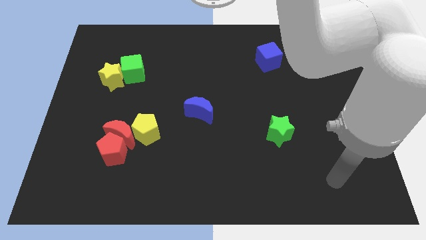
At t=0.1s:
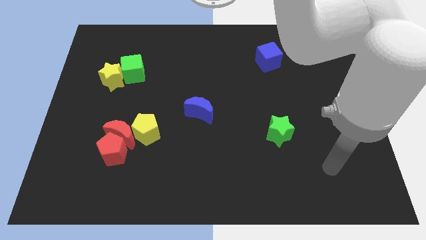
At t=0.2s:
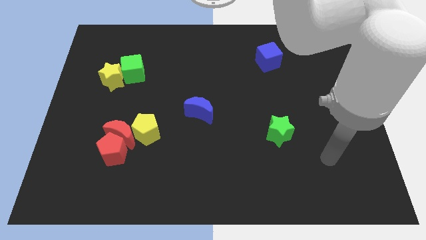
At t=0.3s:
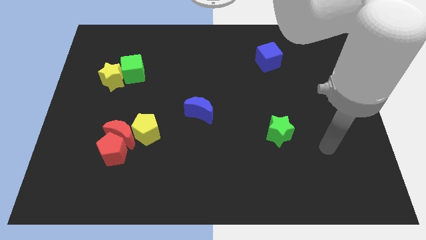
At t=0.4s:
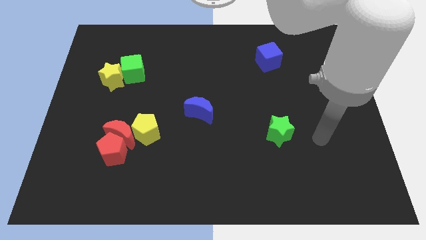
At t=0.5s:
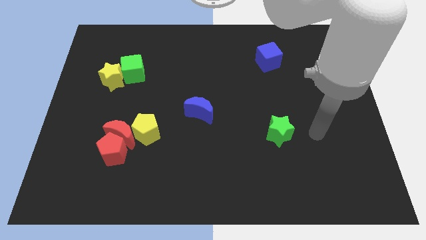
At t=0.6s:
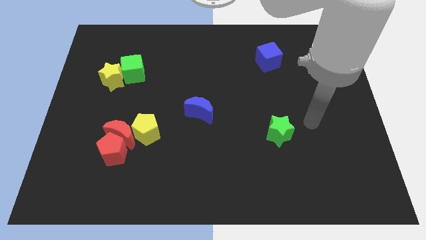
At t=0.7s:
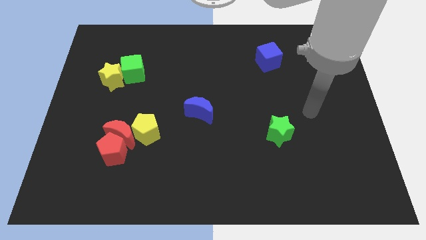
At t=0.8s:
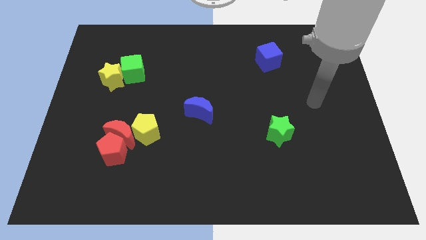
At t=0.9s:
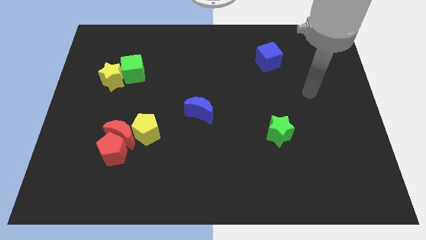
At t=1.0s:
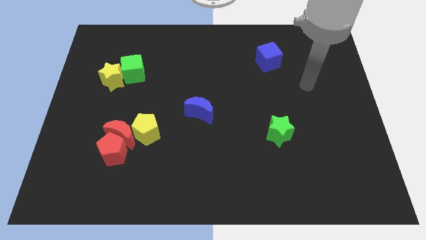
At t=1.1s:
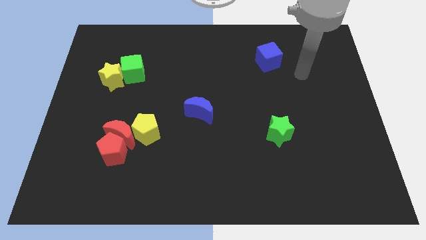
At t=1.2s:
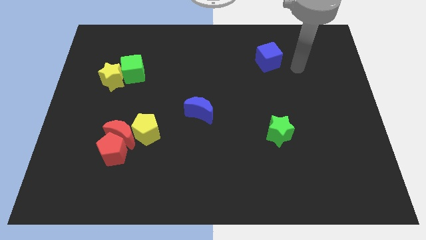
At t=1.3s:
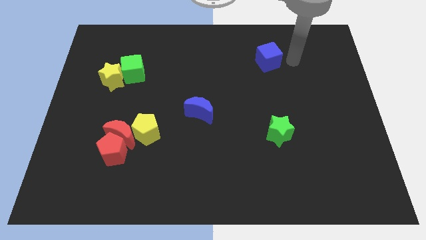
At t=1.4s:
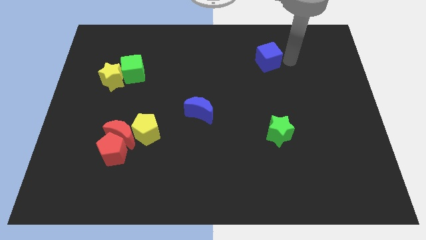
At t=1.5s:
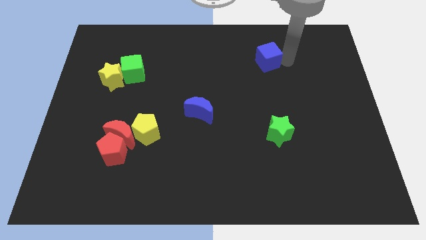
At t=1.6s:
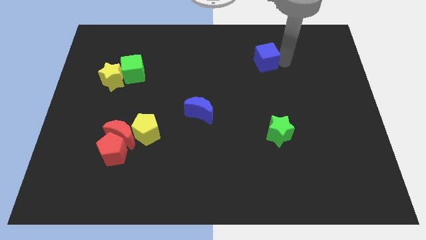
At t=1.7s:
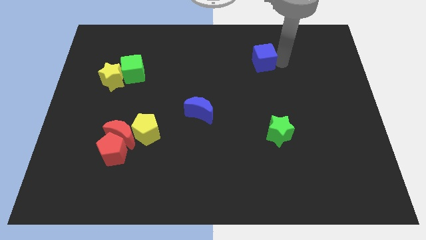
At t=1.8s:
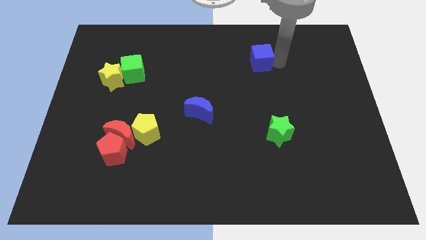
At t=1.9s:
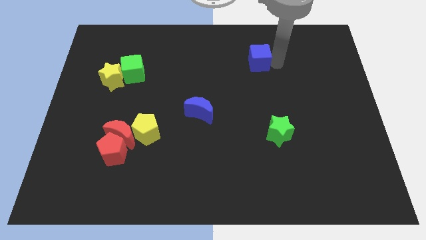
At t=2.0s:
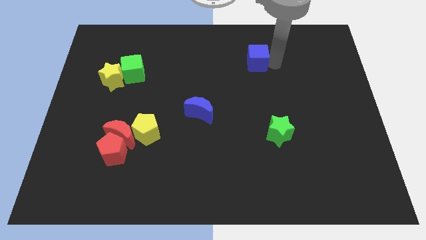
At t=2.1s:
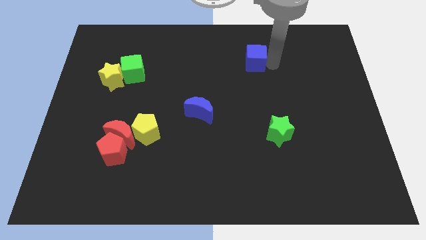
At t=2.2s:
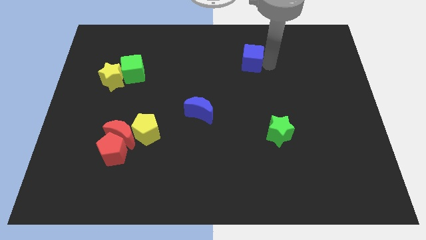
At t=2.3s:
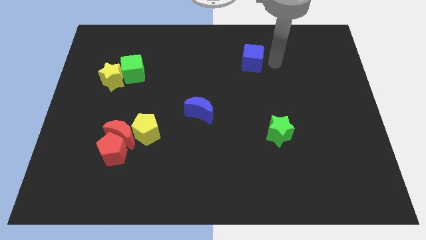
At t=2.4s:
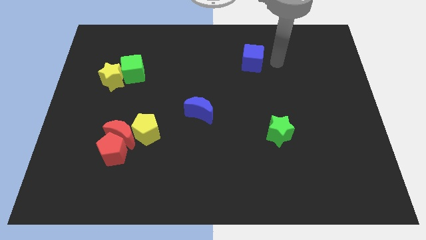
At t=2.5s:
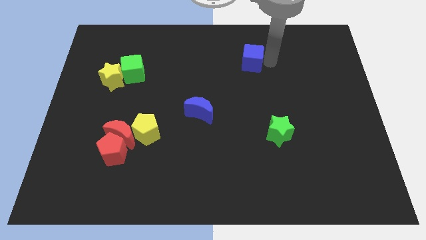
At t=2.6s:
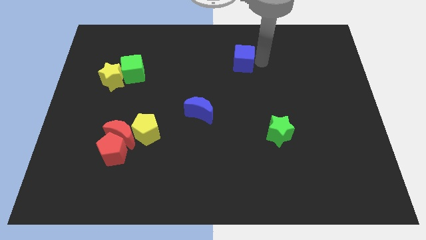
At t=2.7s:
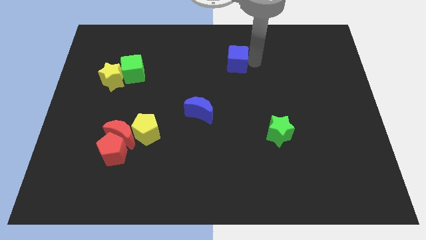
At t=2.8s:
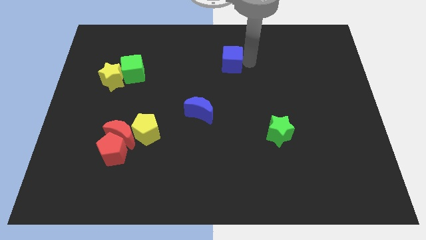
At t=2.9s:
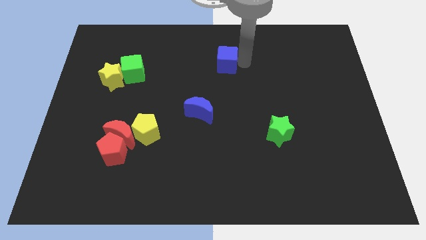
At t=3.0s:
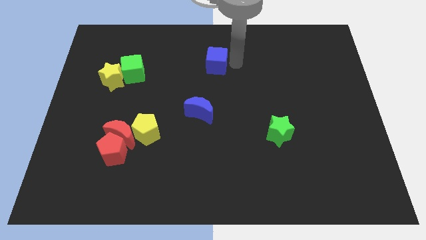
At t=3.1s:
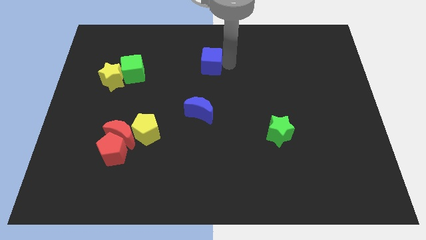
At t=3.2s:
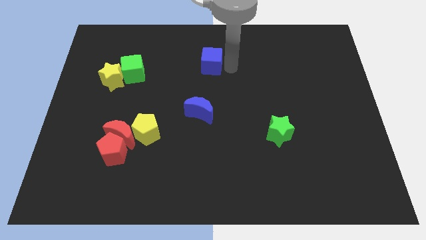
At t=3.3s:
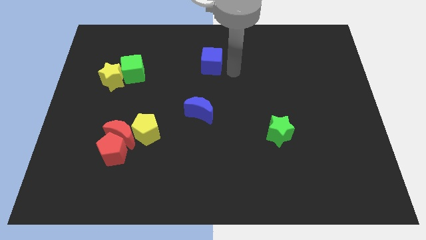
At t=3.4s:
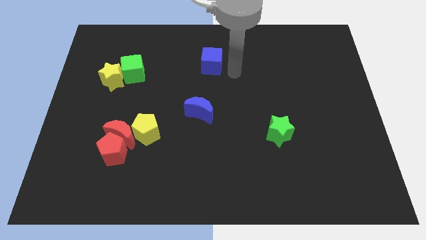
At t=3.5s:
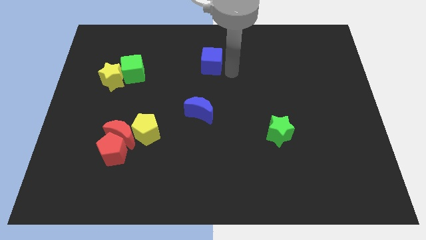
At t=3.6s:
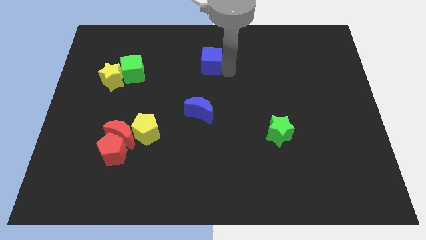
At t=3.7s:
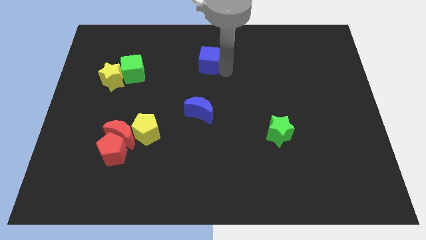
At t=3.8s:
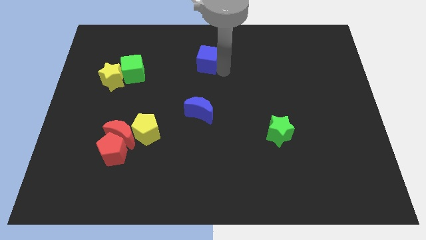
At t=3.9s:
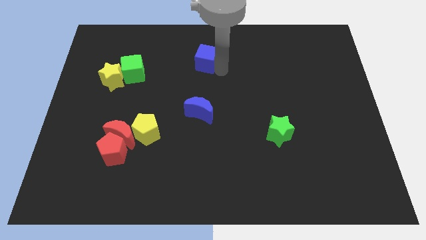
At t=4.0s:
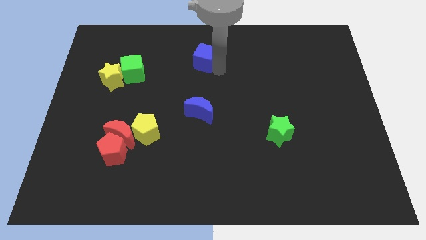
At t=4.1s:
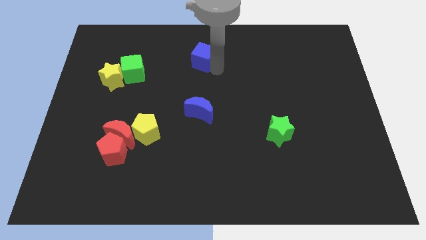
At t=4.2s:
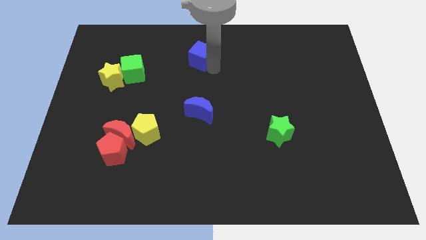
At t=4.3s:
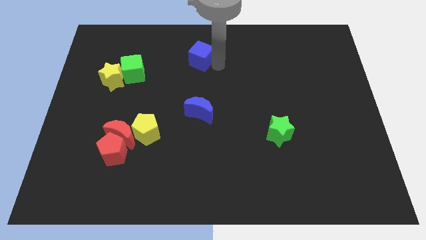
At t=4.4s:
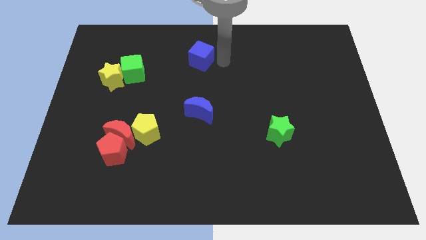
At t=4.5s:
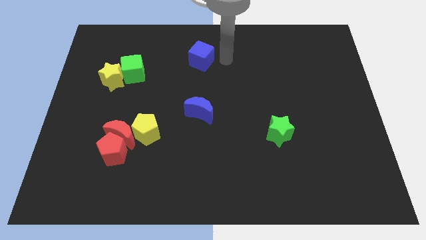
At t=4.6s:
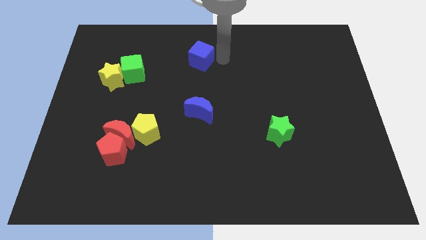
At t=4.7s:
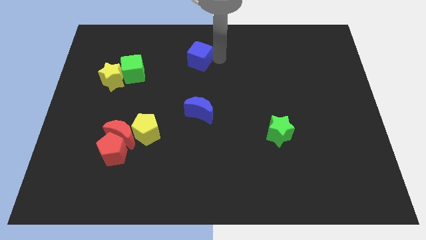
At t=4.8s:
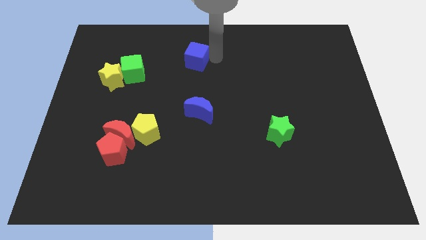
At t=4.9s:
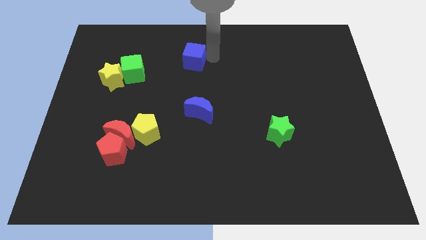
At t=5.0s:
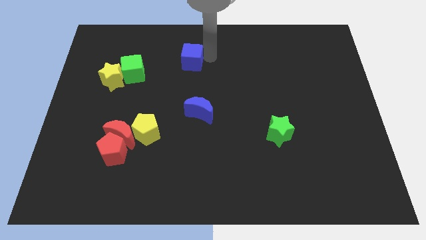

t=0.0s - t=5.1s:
slide the blue cube left

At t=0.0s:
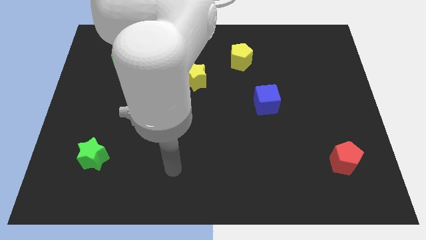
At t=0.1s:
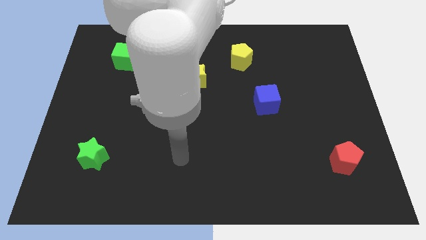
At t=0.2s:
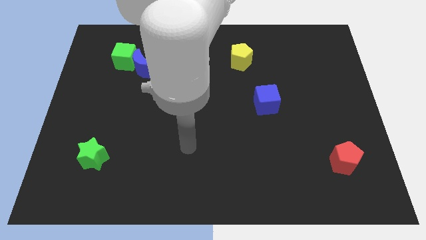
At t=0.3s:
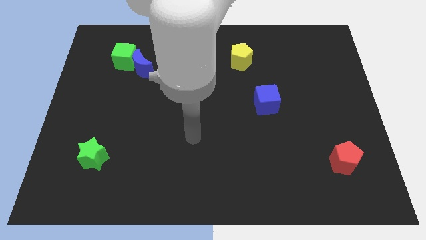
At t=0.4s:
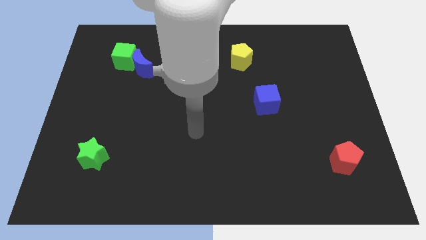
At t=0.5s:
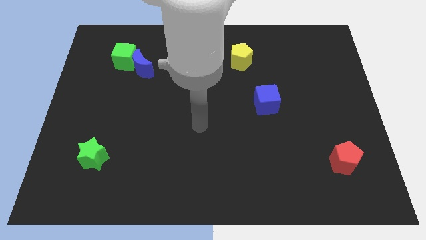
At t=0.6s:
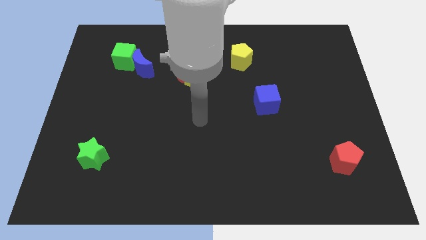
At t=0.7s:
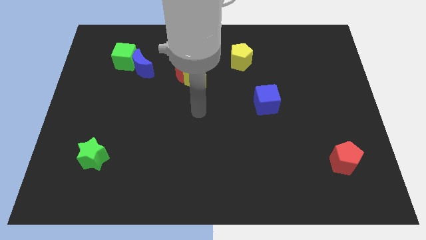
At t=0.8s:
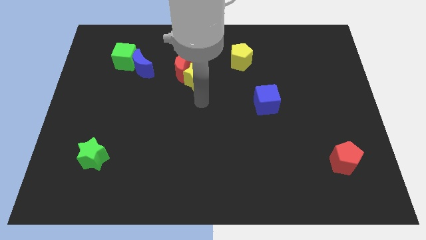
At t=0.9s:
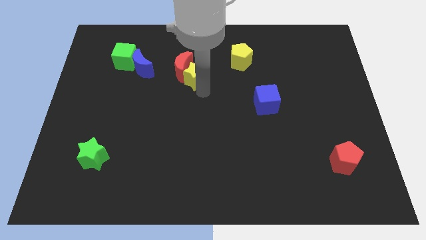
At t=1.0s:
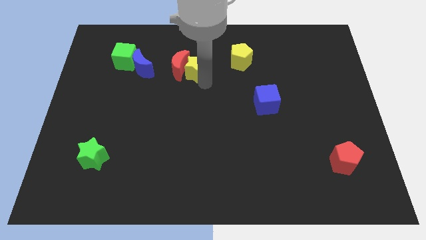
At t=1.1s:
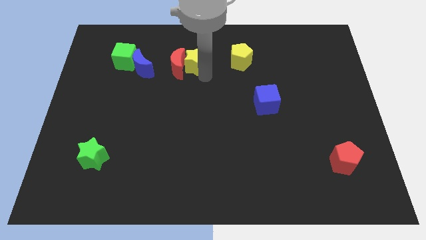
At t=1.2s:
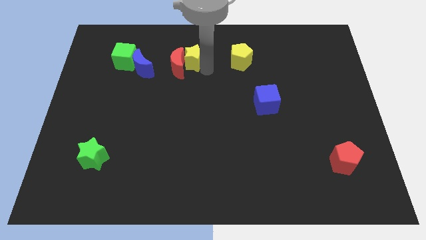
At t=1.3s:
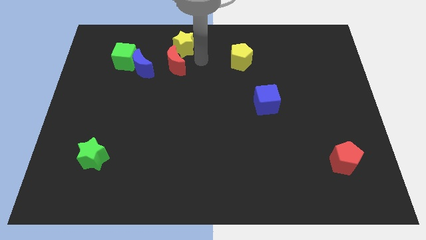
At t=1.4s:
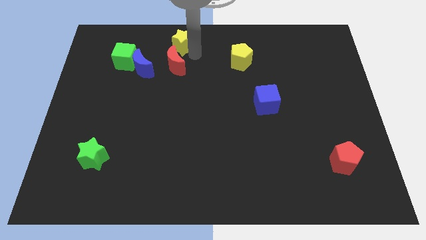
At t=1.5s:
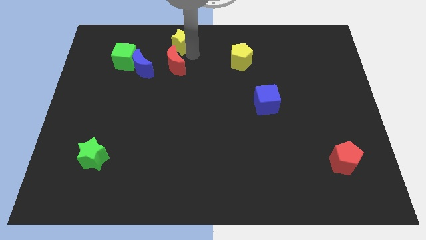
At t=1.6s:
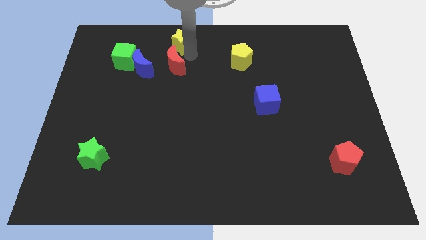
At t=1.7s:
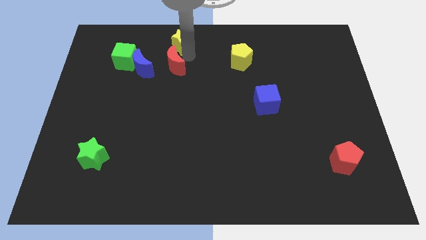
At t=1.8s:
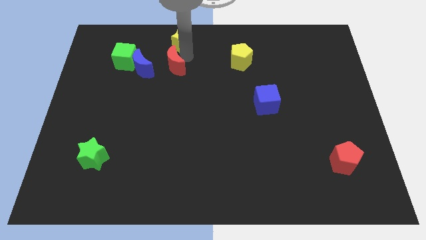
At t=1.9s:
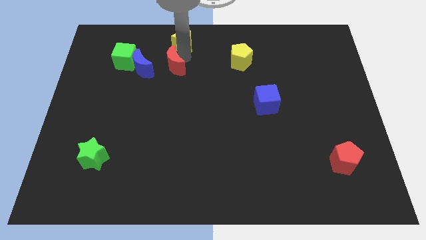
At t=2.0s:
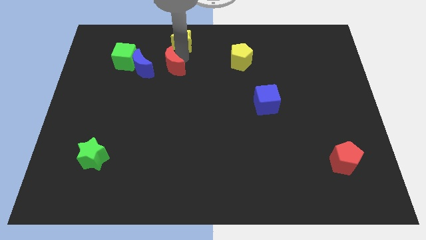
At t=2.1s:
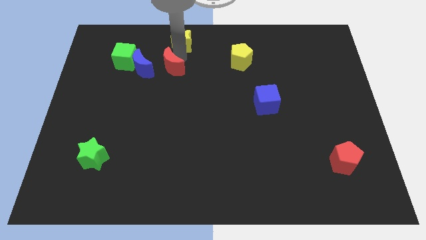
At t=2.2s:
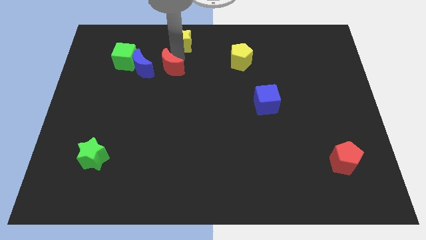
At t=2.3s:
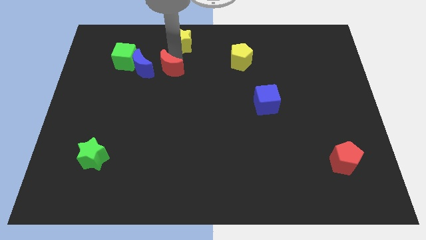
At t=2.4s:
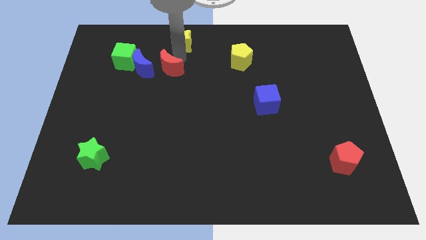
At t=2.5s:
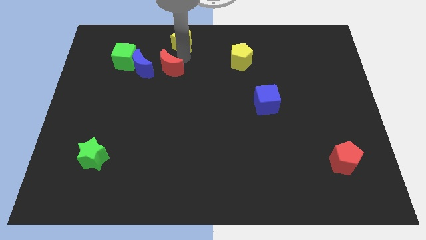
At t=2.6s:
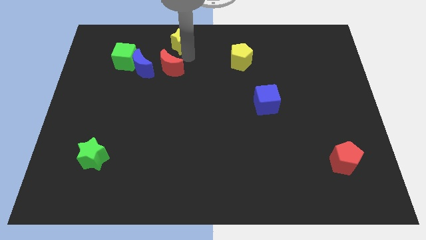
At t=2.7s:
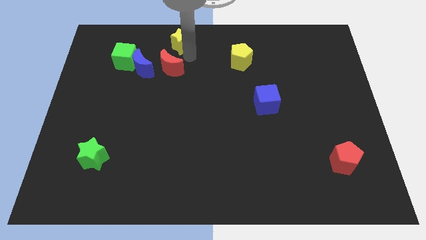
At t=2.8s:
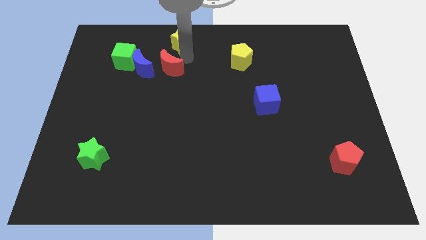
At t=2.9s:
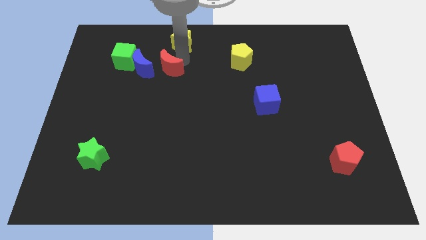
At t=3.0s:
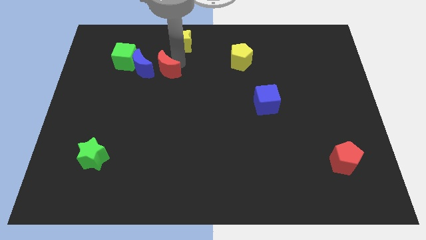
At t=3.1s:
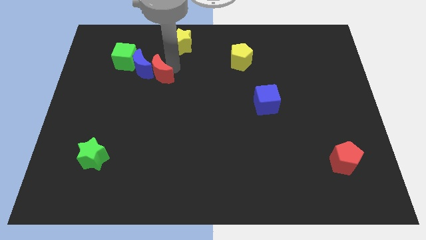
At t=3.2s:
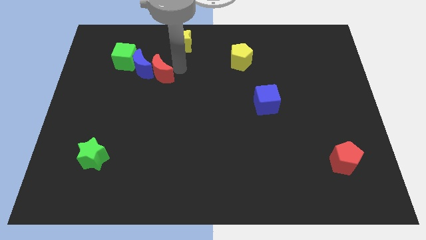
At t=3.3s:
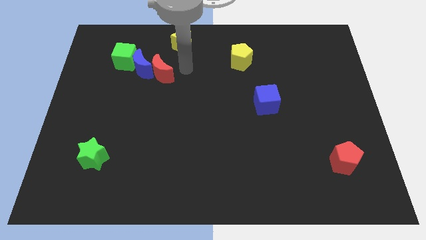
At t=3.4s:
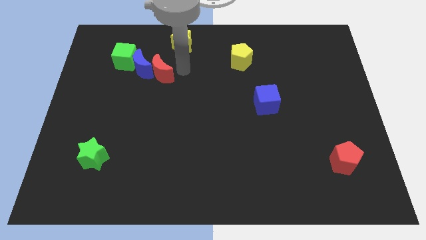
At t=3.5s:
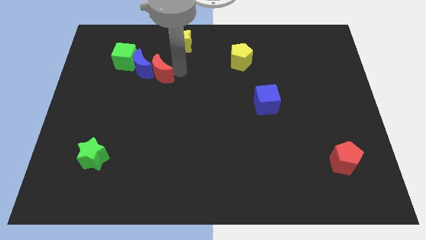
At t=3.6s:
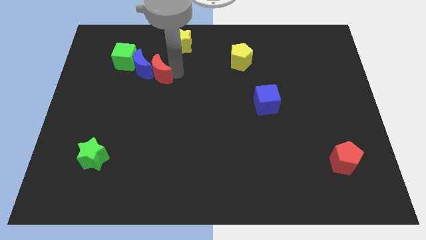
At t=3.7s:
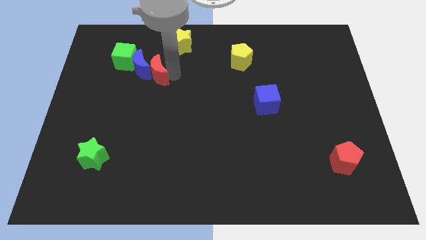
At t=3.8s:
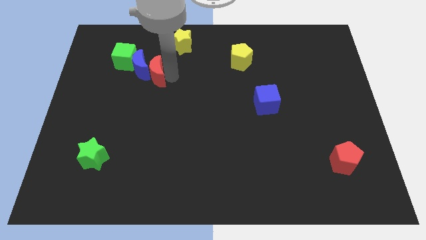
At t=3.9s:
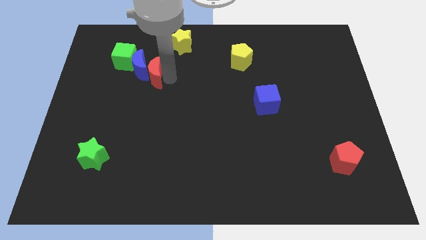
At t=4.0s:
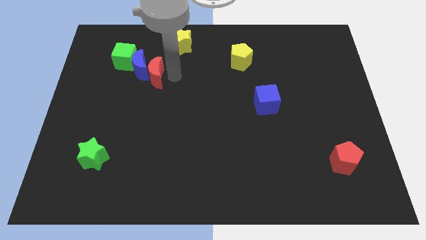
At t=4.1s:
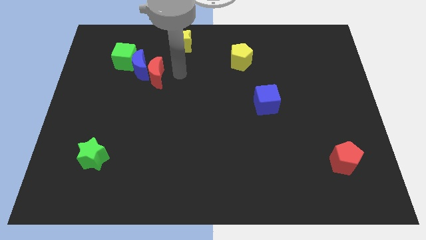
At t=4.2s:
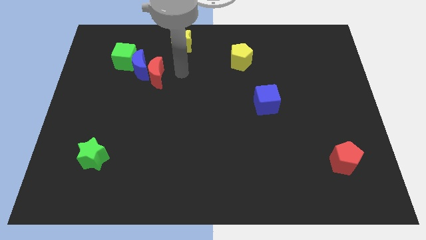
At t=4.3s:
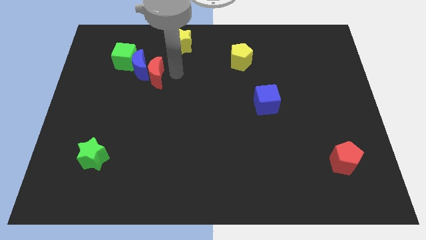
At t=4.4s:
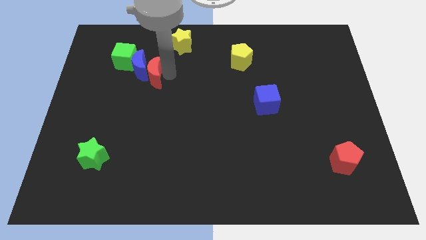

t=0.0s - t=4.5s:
push the red moon left a little bit
